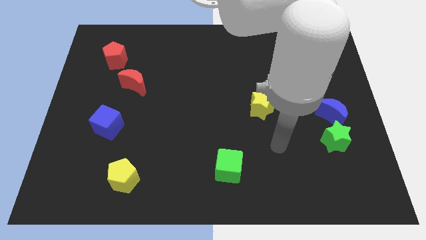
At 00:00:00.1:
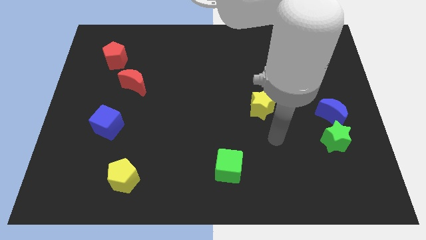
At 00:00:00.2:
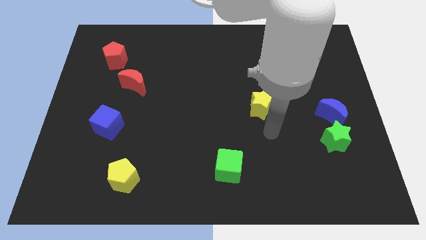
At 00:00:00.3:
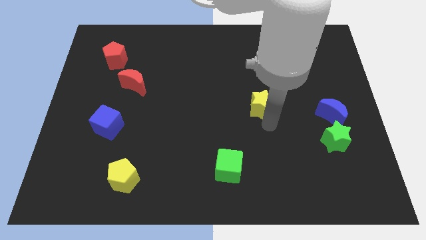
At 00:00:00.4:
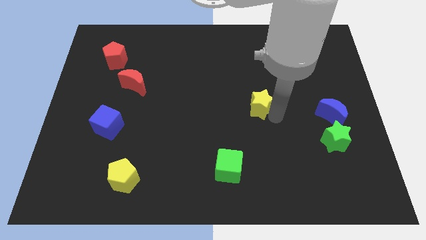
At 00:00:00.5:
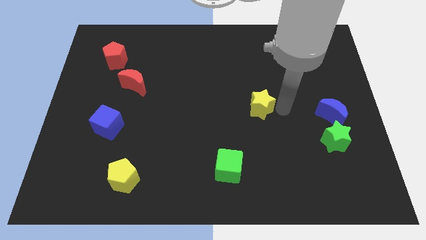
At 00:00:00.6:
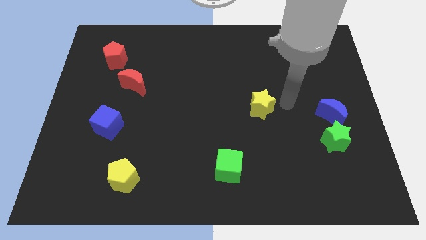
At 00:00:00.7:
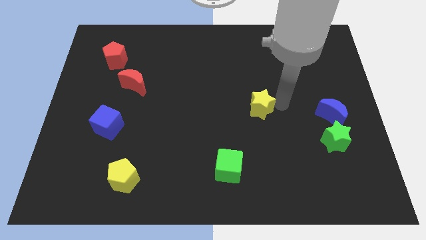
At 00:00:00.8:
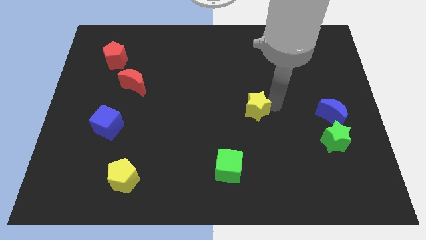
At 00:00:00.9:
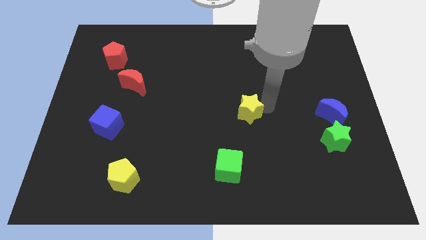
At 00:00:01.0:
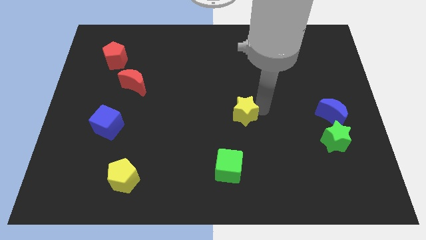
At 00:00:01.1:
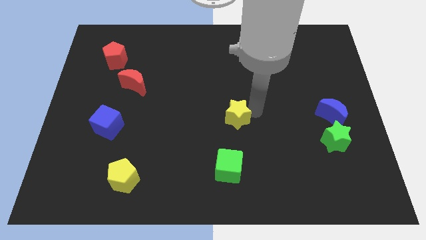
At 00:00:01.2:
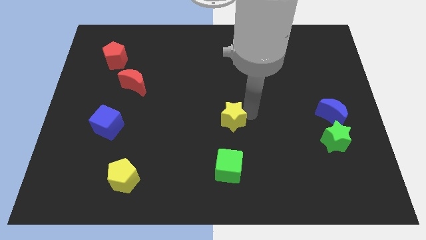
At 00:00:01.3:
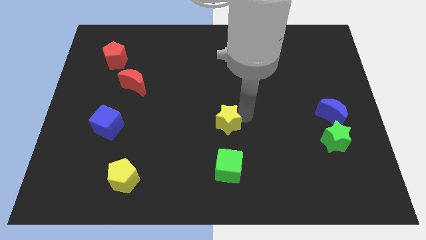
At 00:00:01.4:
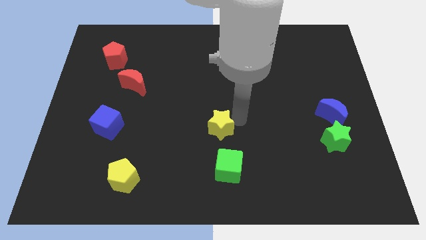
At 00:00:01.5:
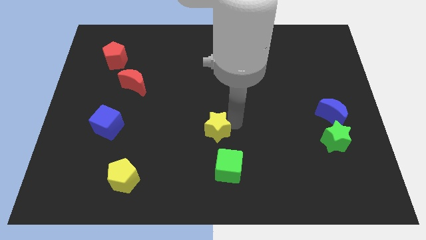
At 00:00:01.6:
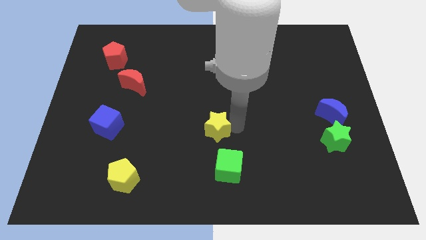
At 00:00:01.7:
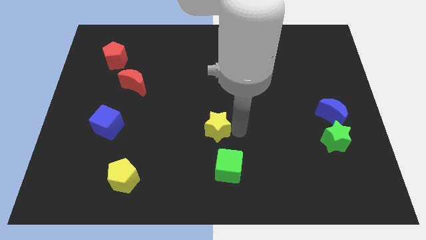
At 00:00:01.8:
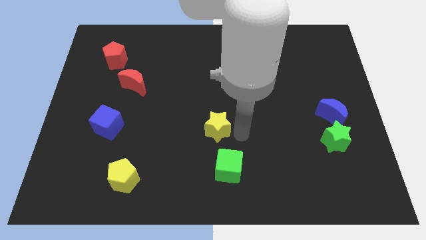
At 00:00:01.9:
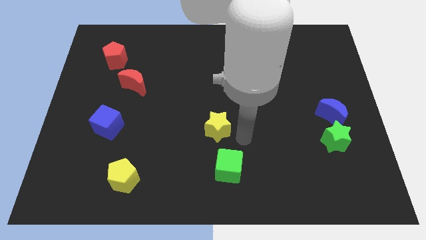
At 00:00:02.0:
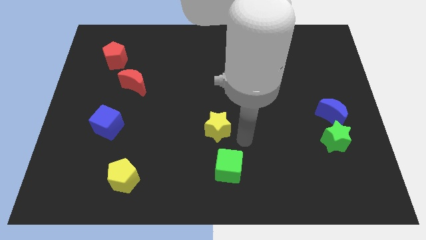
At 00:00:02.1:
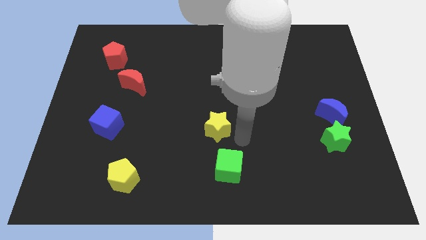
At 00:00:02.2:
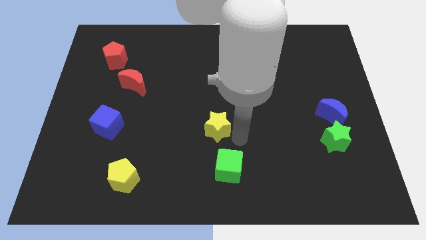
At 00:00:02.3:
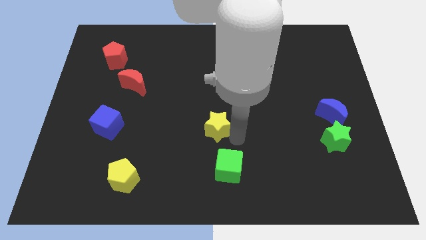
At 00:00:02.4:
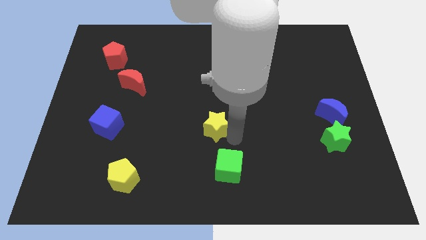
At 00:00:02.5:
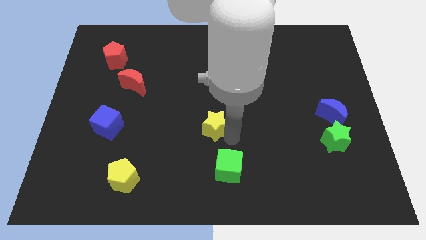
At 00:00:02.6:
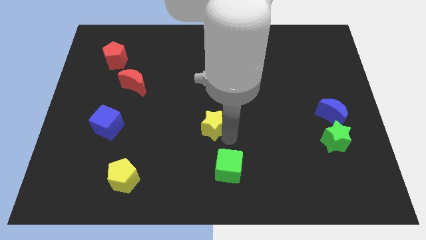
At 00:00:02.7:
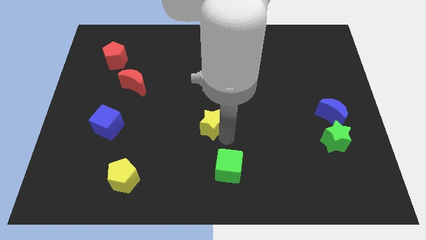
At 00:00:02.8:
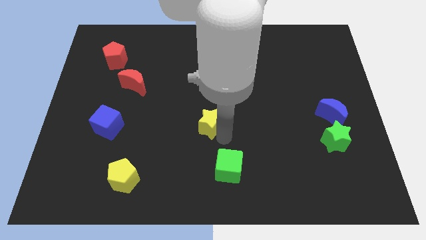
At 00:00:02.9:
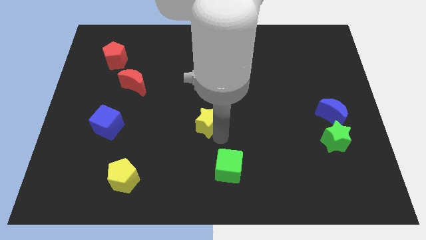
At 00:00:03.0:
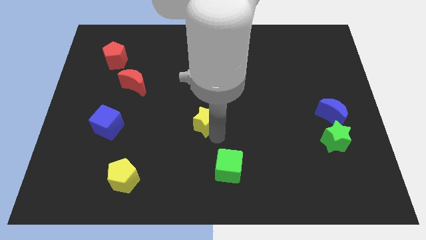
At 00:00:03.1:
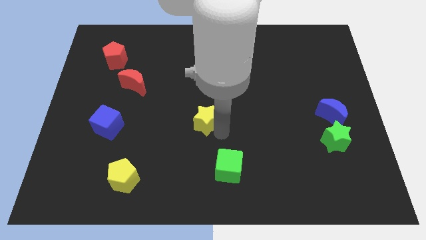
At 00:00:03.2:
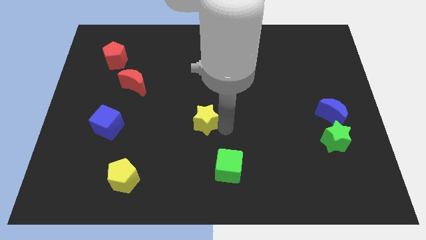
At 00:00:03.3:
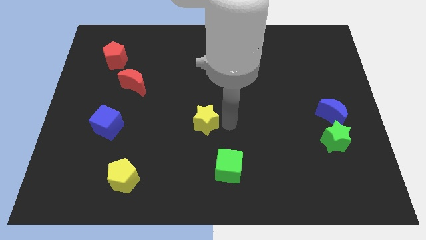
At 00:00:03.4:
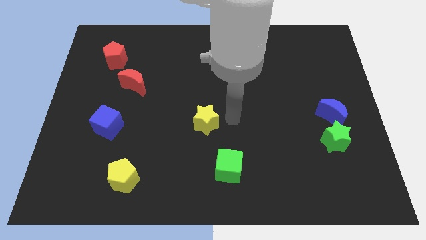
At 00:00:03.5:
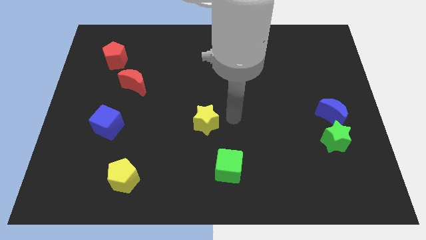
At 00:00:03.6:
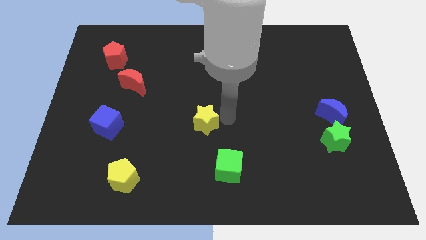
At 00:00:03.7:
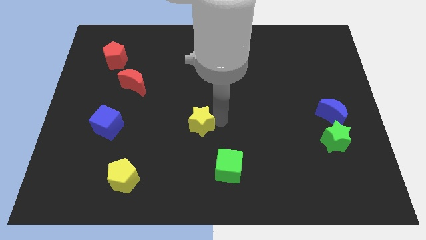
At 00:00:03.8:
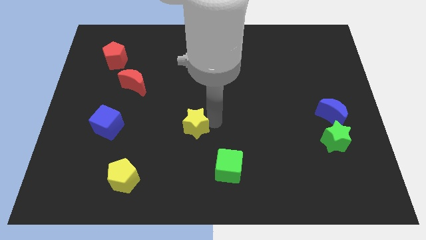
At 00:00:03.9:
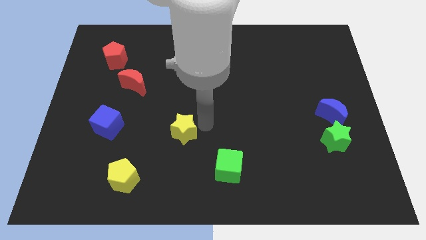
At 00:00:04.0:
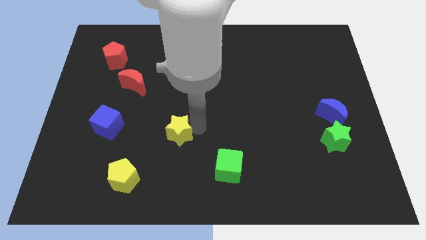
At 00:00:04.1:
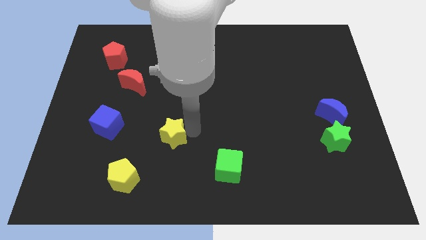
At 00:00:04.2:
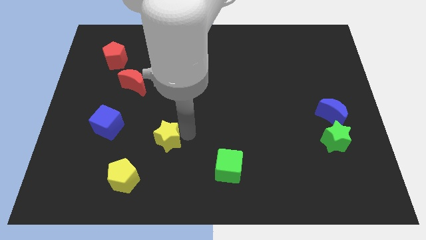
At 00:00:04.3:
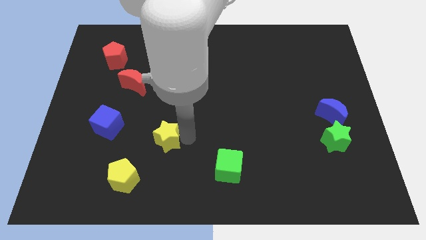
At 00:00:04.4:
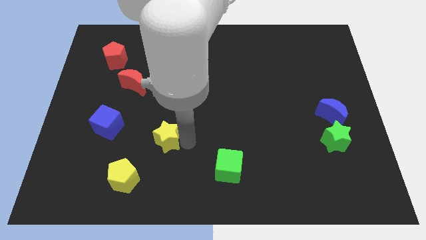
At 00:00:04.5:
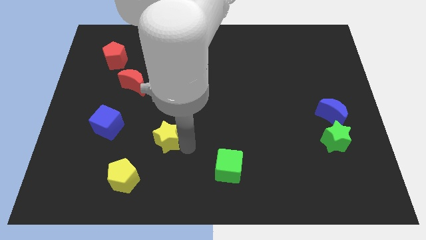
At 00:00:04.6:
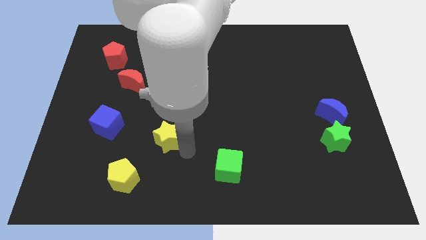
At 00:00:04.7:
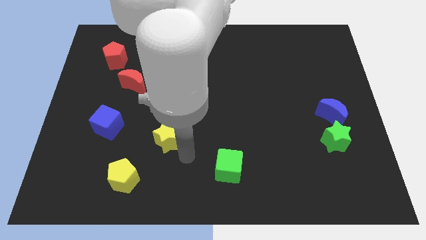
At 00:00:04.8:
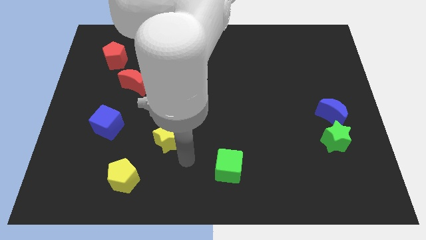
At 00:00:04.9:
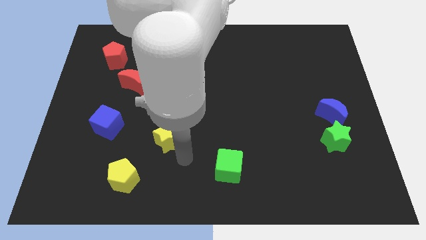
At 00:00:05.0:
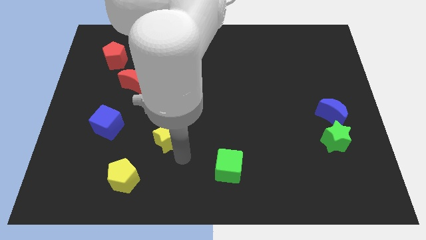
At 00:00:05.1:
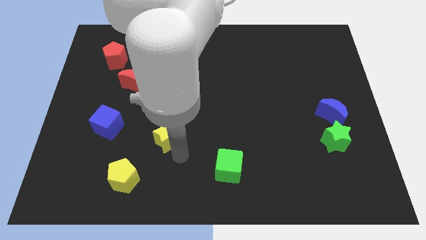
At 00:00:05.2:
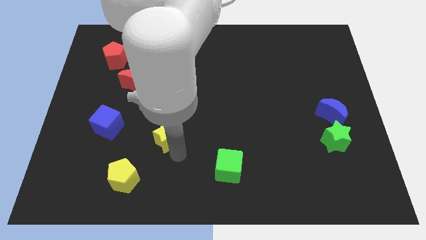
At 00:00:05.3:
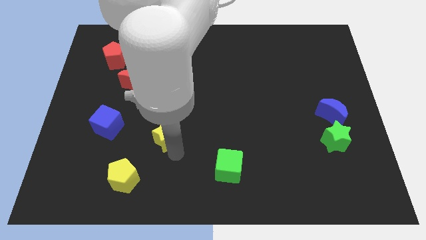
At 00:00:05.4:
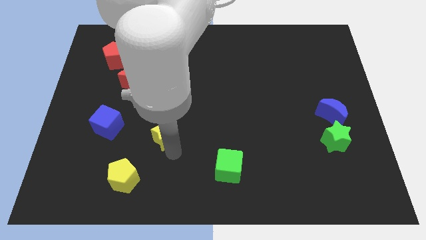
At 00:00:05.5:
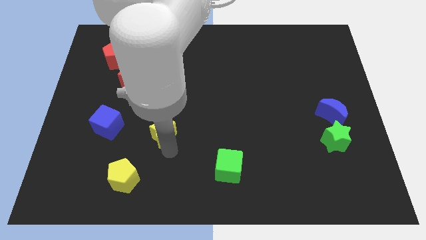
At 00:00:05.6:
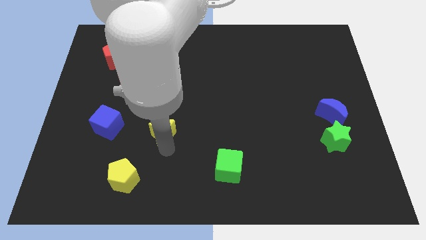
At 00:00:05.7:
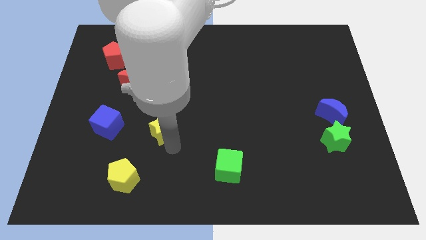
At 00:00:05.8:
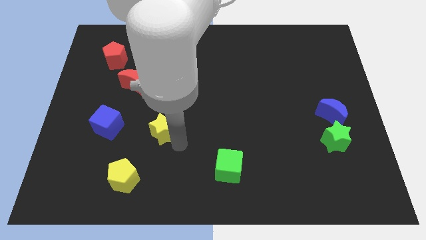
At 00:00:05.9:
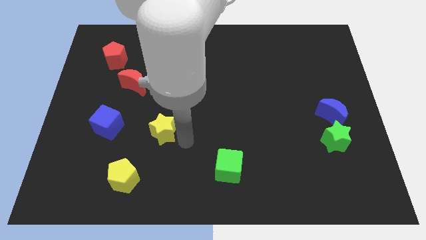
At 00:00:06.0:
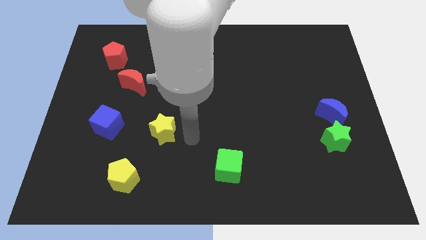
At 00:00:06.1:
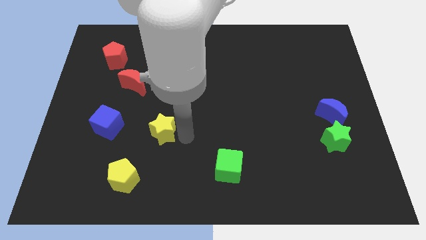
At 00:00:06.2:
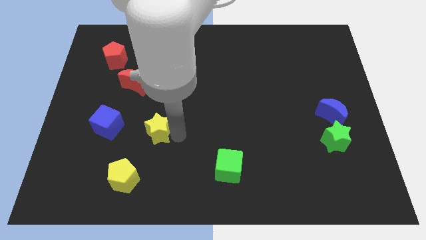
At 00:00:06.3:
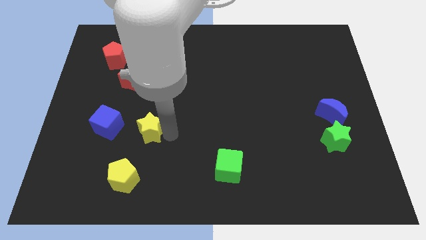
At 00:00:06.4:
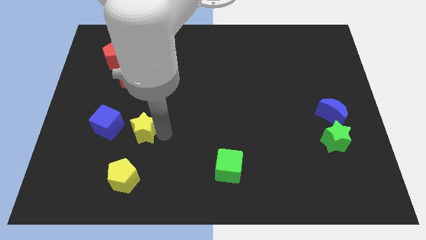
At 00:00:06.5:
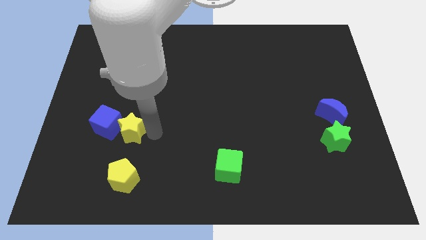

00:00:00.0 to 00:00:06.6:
move the yellow star close to the blue cube

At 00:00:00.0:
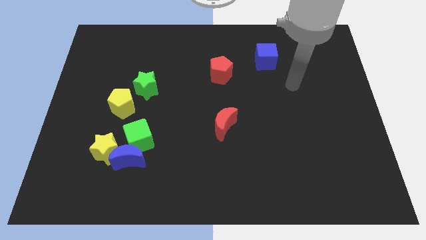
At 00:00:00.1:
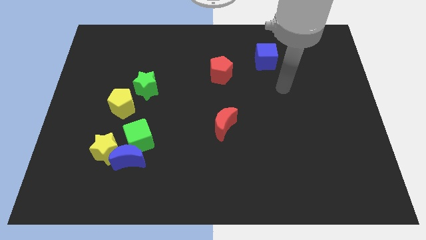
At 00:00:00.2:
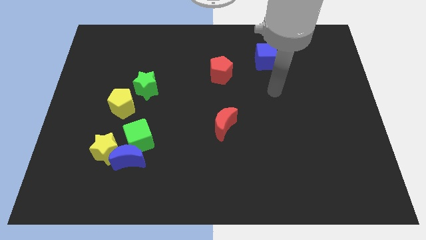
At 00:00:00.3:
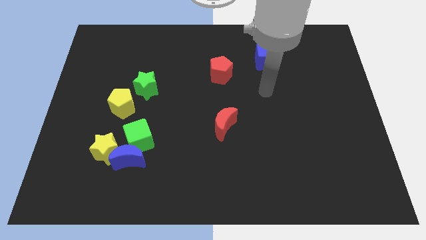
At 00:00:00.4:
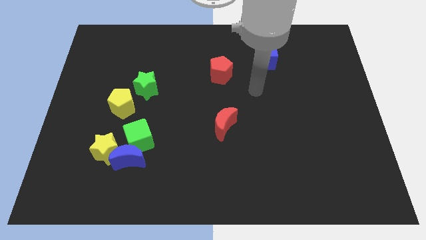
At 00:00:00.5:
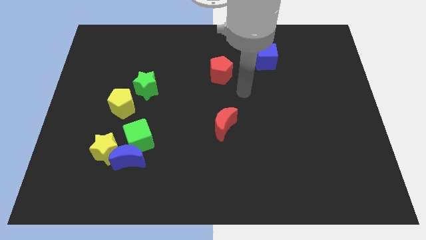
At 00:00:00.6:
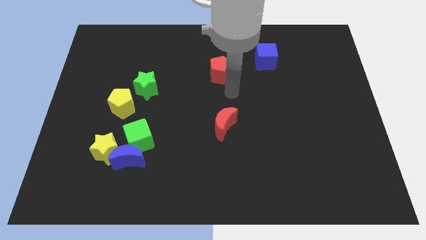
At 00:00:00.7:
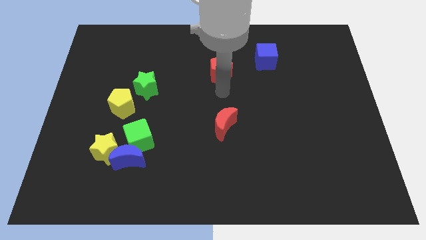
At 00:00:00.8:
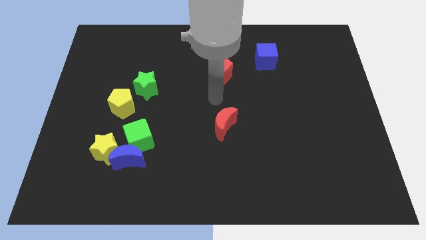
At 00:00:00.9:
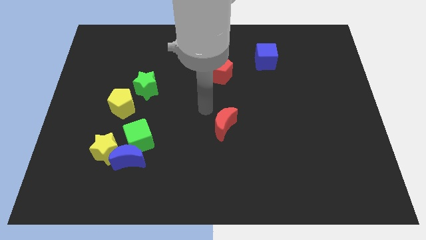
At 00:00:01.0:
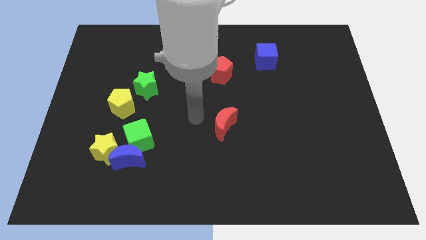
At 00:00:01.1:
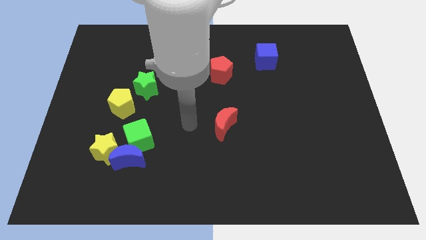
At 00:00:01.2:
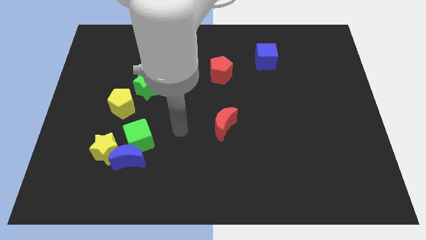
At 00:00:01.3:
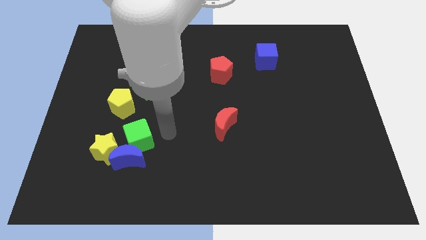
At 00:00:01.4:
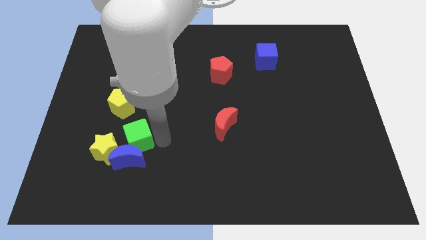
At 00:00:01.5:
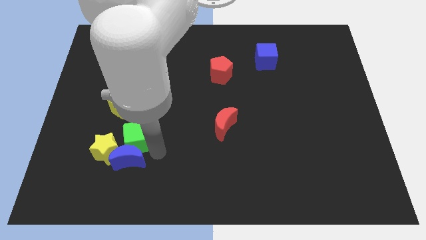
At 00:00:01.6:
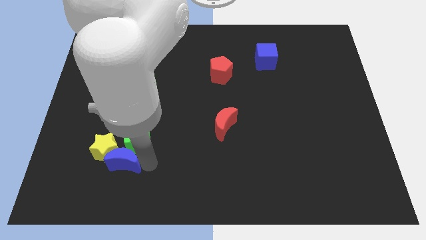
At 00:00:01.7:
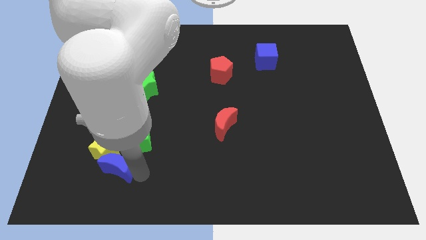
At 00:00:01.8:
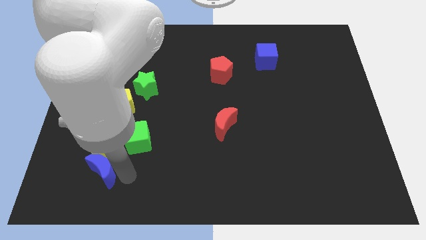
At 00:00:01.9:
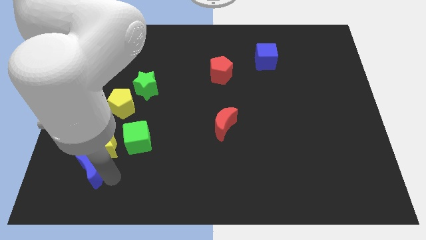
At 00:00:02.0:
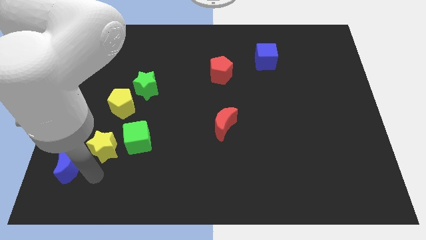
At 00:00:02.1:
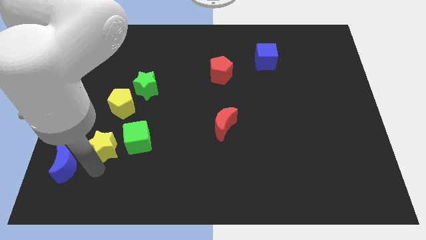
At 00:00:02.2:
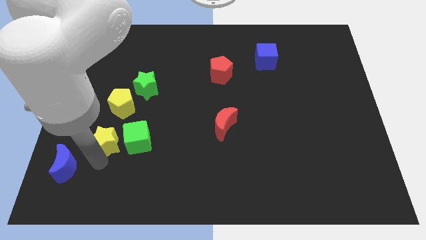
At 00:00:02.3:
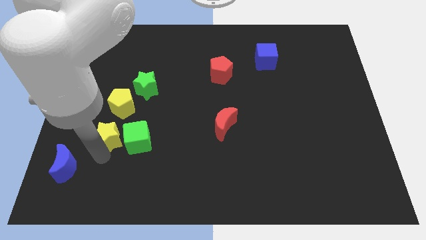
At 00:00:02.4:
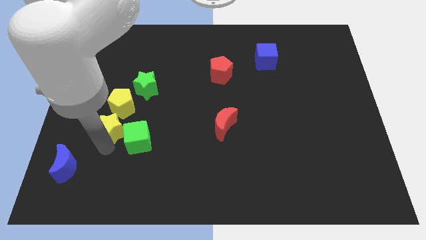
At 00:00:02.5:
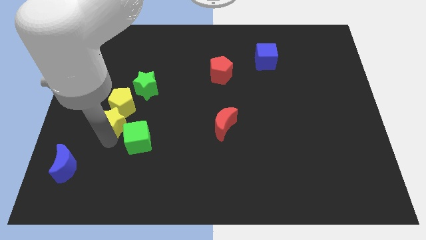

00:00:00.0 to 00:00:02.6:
push the yellow star close to the yellow pentagon
